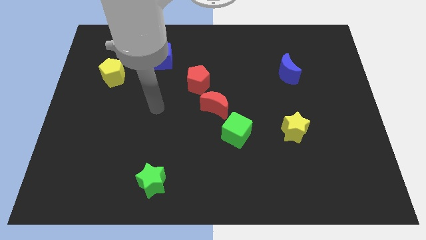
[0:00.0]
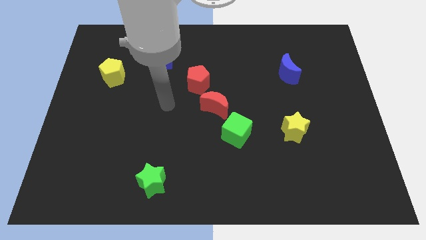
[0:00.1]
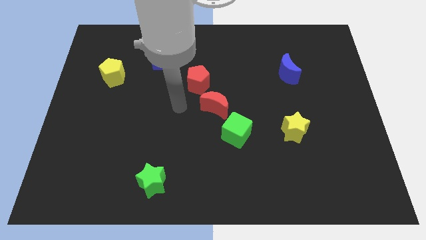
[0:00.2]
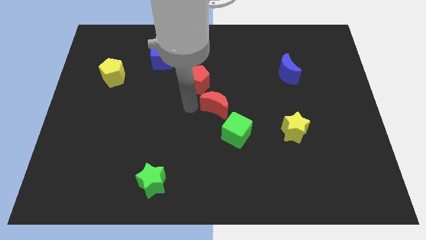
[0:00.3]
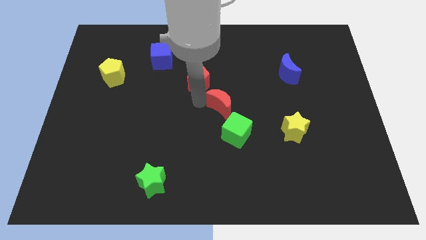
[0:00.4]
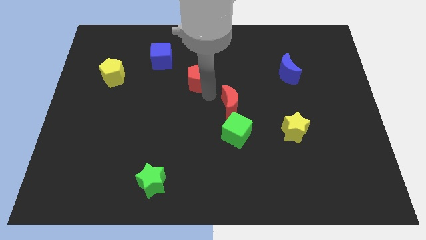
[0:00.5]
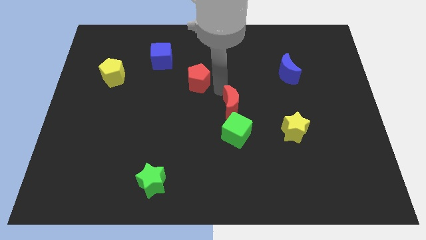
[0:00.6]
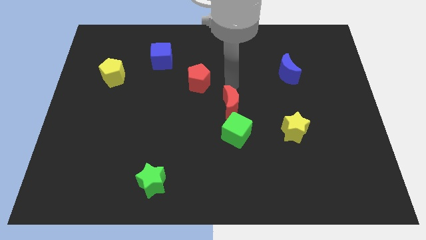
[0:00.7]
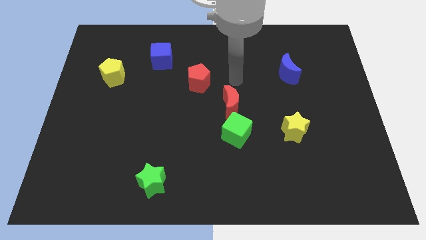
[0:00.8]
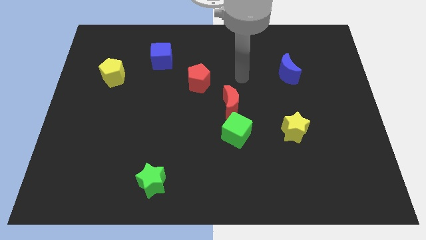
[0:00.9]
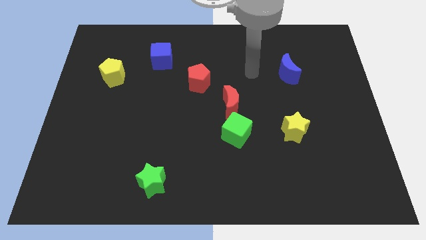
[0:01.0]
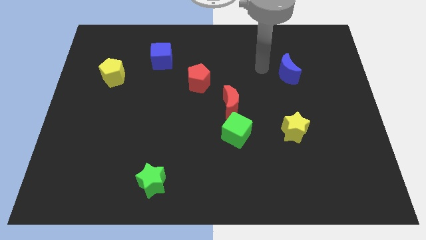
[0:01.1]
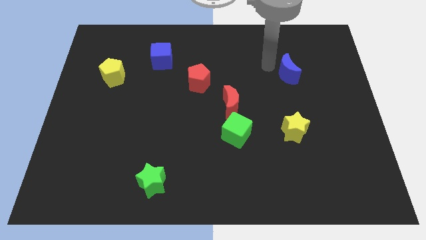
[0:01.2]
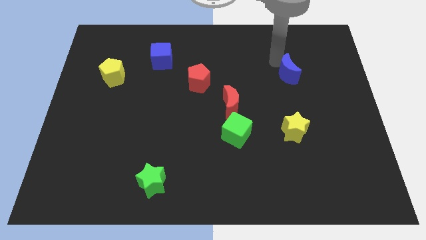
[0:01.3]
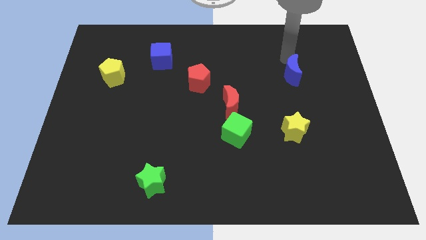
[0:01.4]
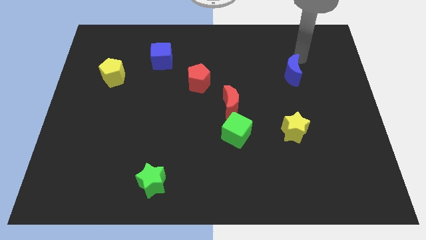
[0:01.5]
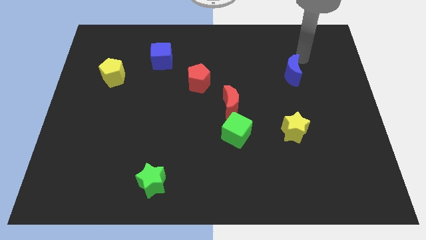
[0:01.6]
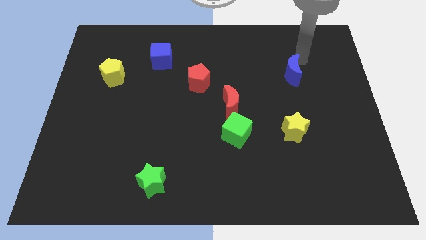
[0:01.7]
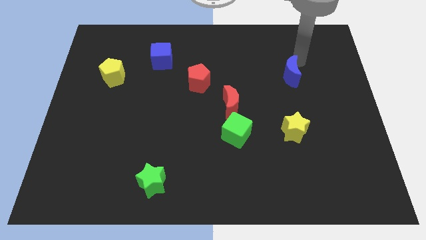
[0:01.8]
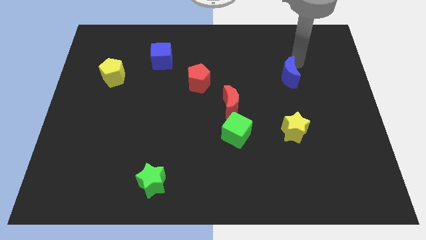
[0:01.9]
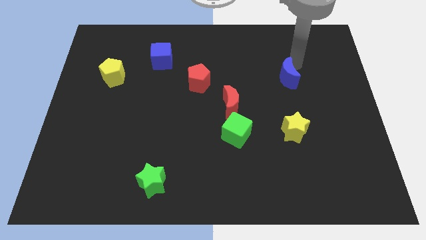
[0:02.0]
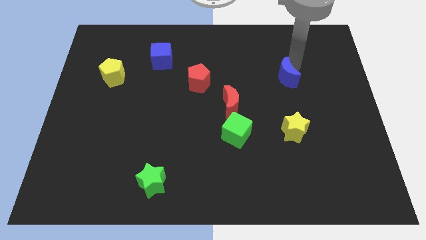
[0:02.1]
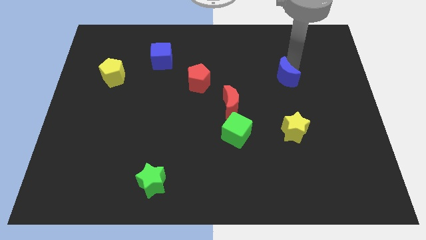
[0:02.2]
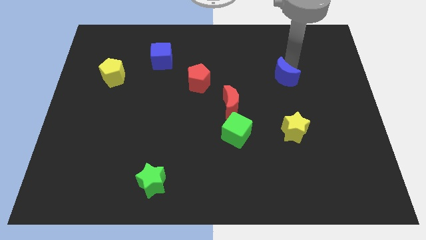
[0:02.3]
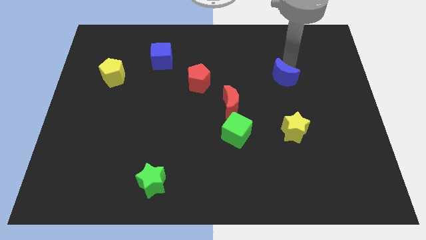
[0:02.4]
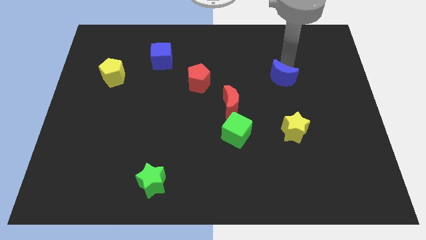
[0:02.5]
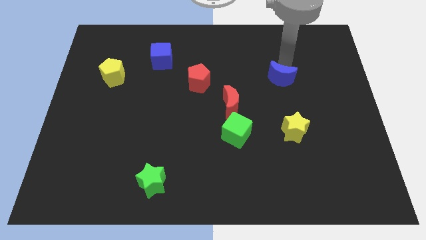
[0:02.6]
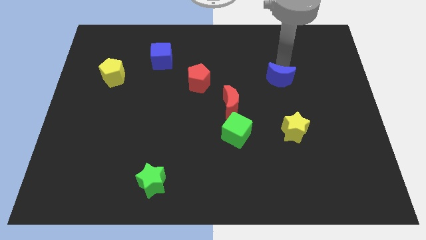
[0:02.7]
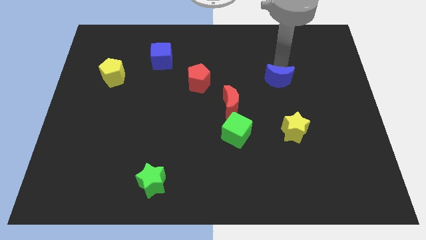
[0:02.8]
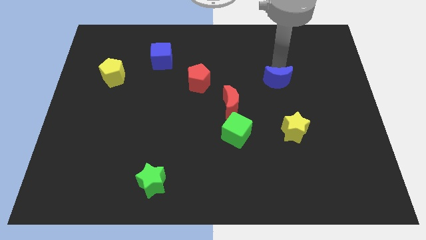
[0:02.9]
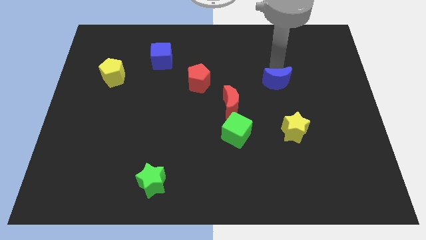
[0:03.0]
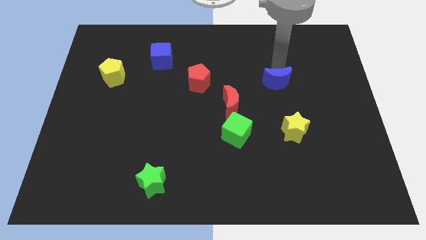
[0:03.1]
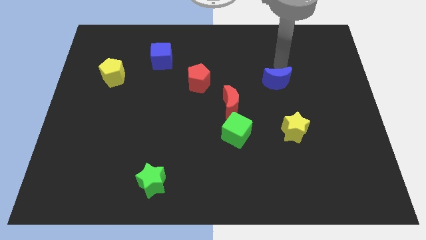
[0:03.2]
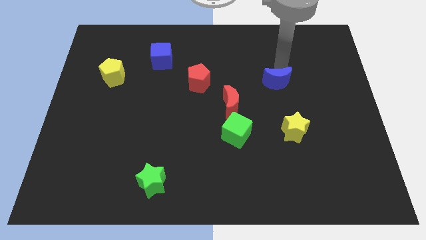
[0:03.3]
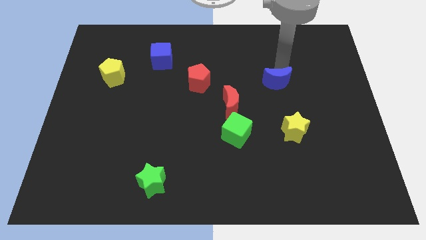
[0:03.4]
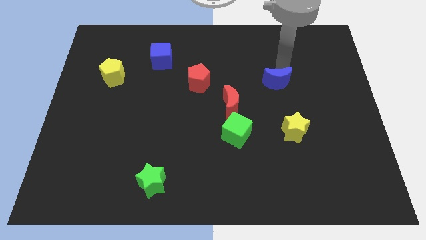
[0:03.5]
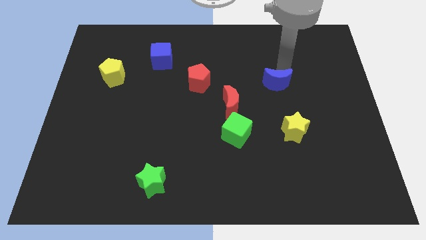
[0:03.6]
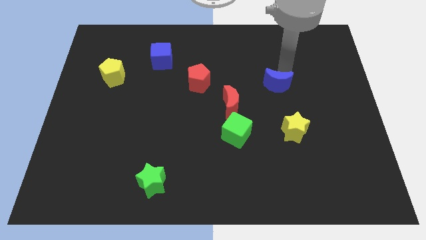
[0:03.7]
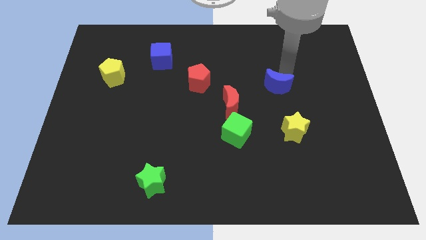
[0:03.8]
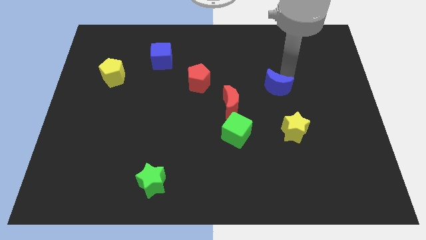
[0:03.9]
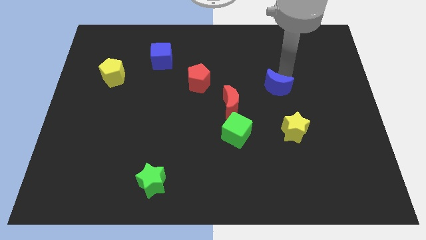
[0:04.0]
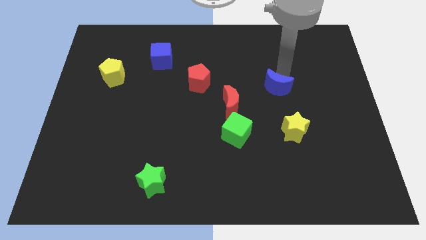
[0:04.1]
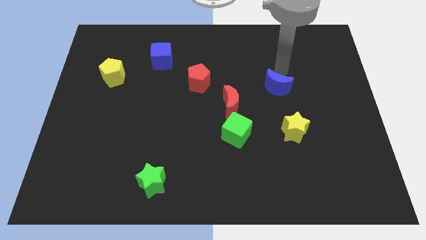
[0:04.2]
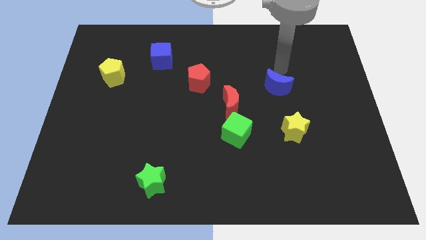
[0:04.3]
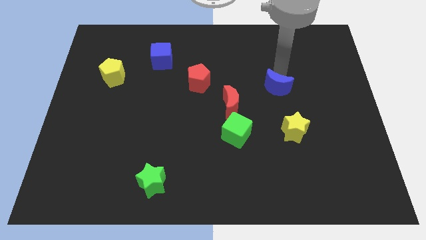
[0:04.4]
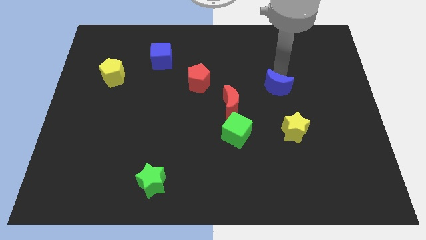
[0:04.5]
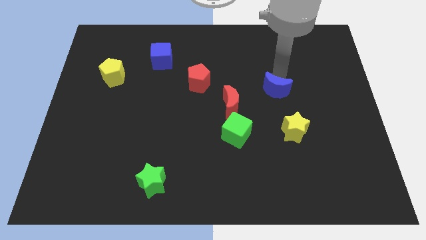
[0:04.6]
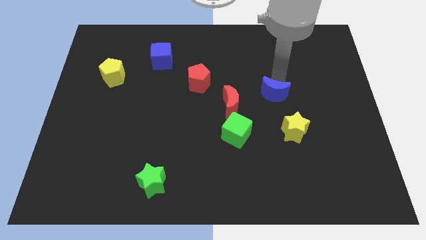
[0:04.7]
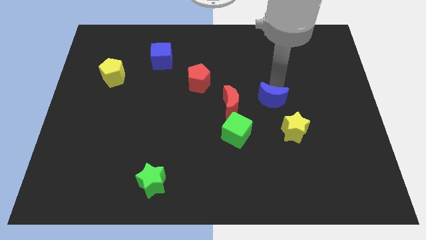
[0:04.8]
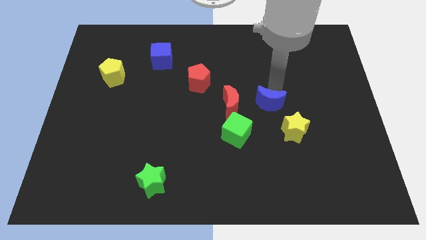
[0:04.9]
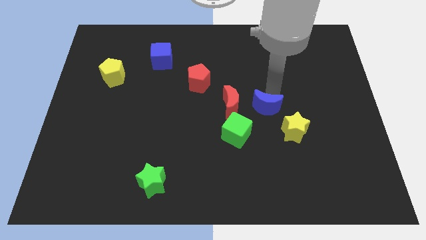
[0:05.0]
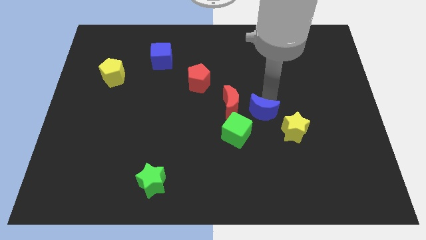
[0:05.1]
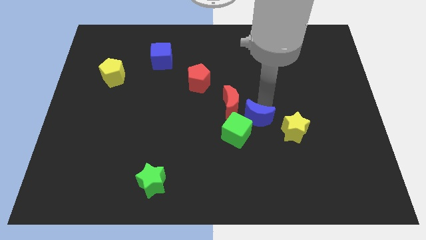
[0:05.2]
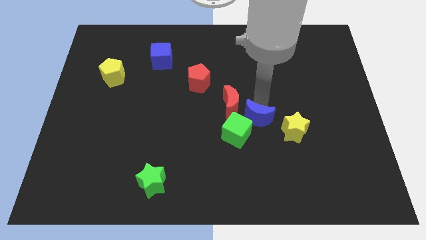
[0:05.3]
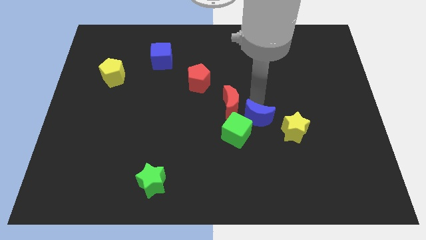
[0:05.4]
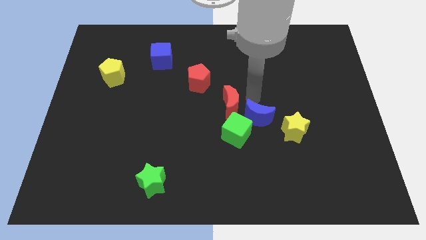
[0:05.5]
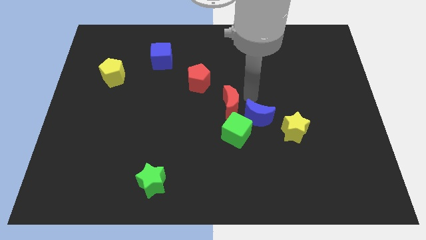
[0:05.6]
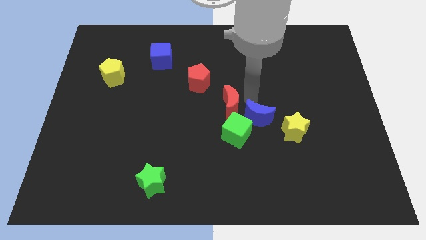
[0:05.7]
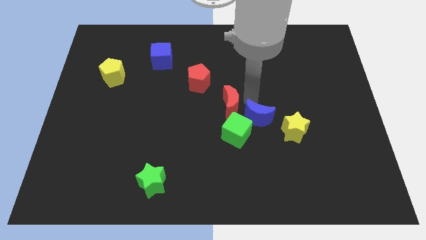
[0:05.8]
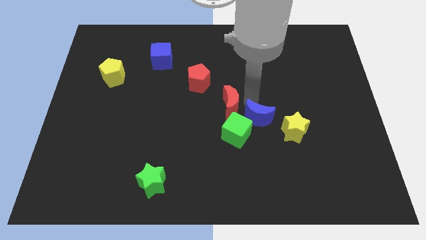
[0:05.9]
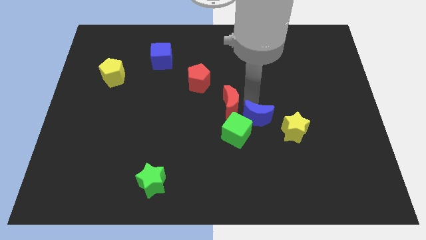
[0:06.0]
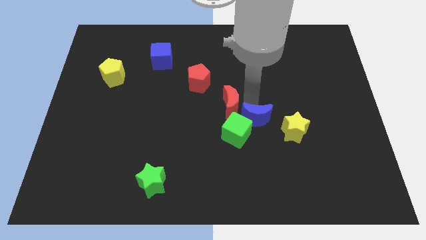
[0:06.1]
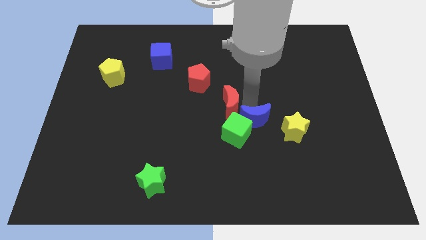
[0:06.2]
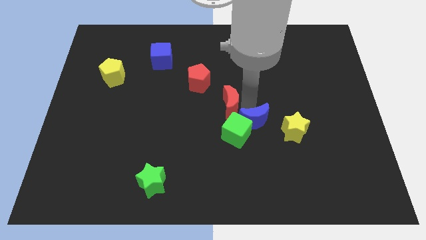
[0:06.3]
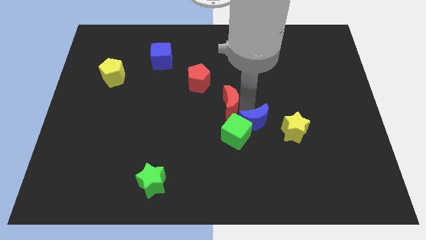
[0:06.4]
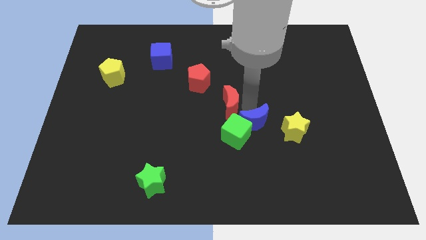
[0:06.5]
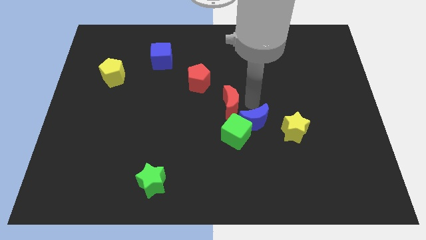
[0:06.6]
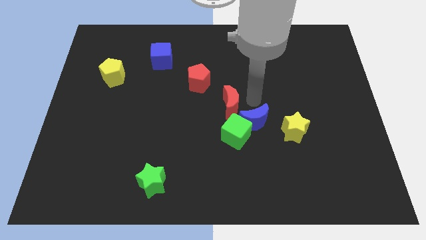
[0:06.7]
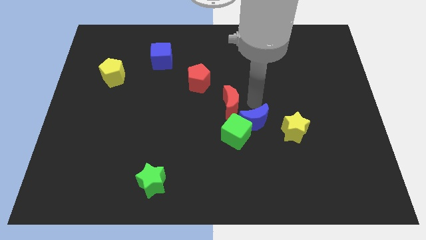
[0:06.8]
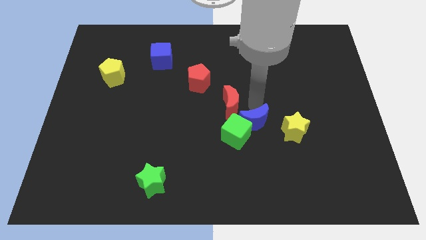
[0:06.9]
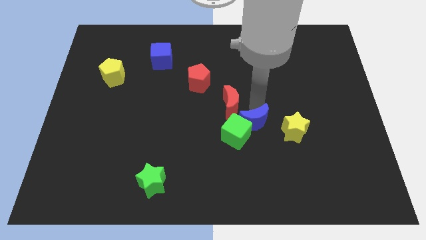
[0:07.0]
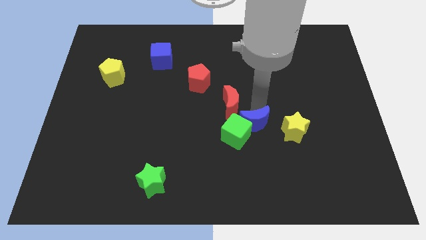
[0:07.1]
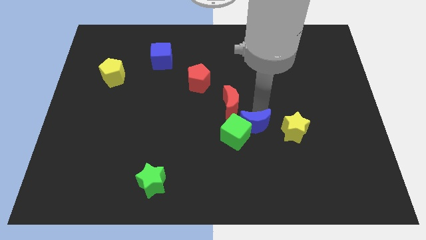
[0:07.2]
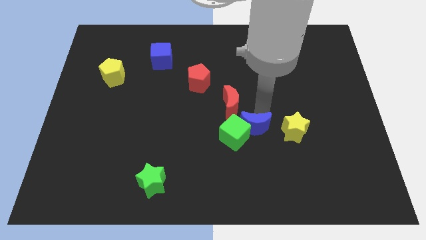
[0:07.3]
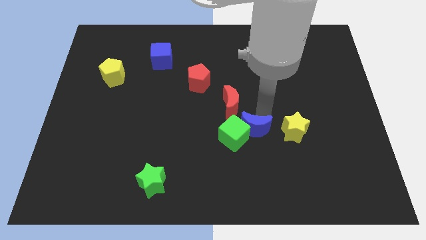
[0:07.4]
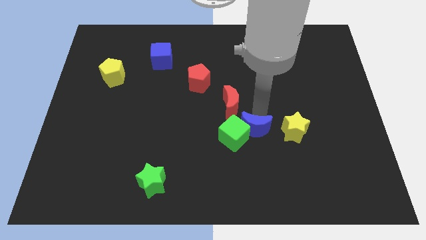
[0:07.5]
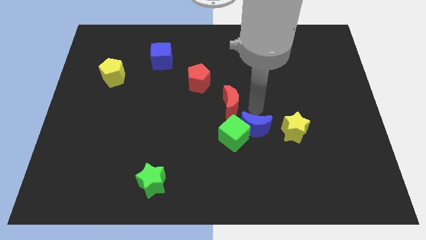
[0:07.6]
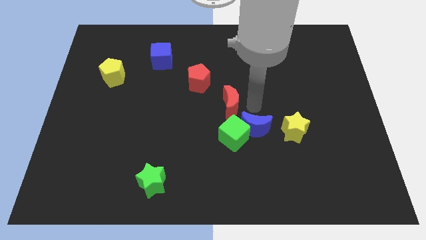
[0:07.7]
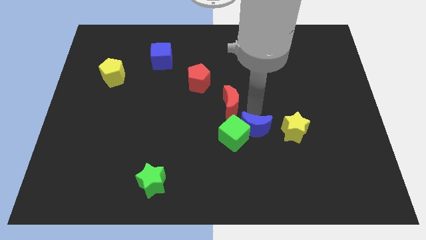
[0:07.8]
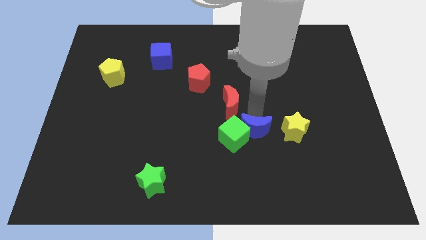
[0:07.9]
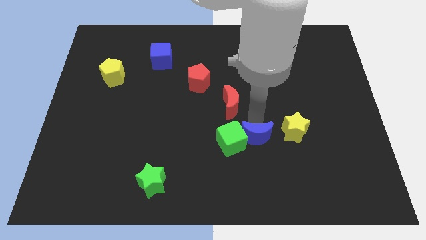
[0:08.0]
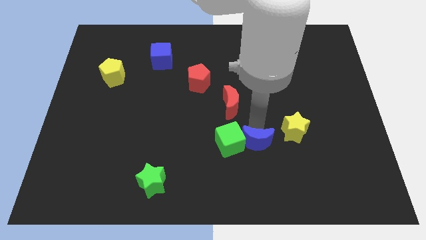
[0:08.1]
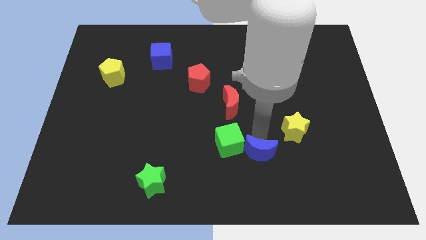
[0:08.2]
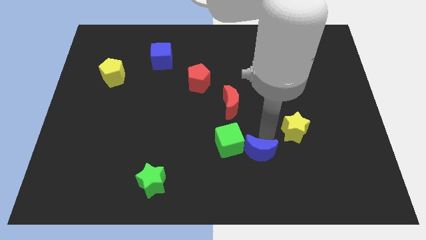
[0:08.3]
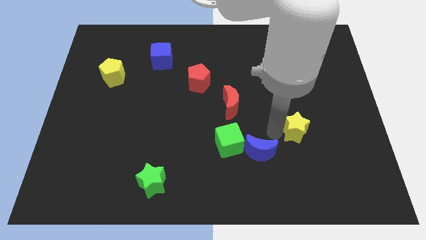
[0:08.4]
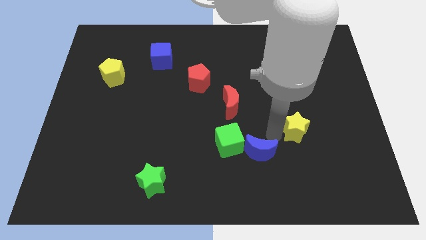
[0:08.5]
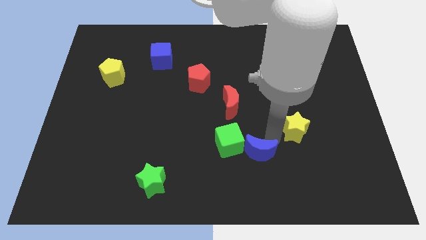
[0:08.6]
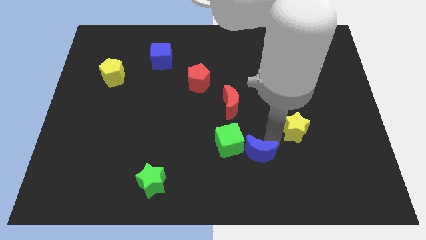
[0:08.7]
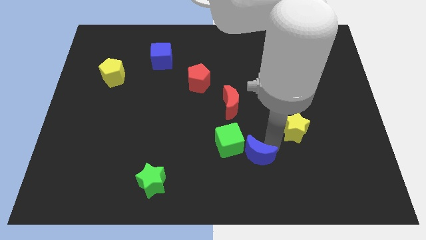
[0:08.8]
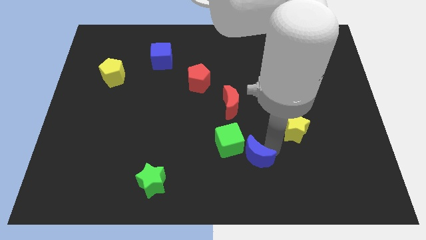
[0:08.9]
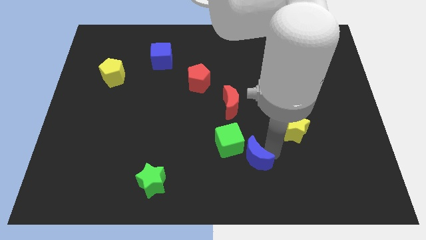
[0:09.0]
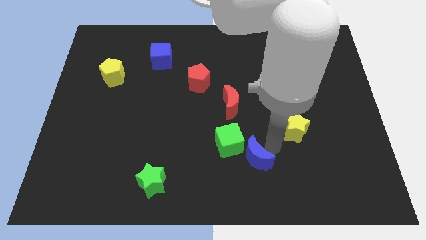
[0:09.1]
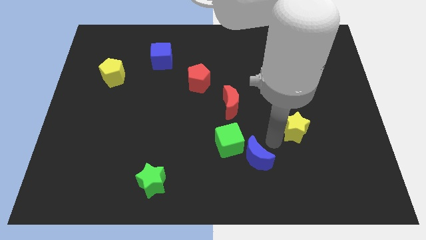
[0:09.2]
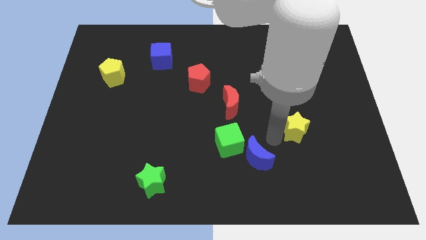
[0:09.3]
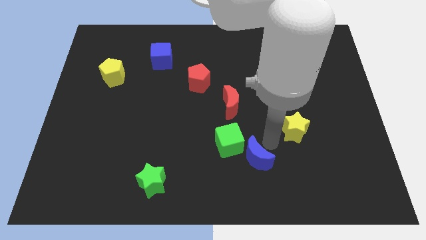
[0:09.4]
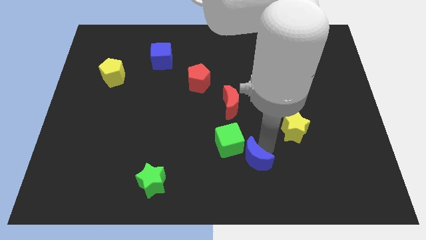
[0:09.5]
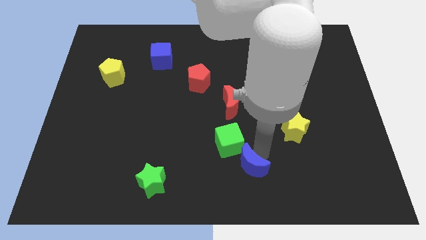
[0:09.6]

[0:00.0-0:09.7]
push the blue moon to the bottom side
